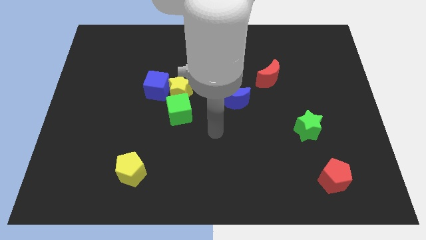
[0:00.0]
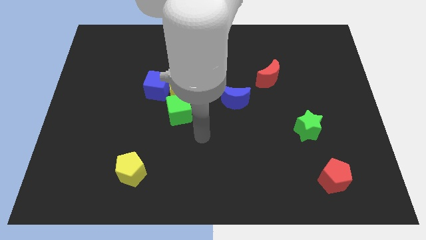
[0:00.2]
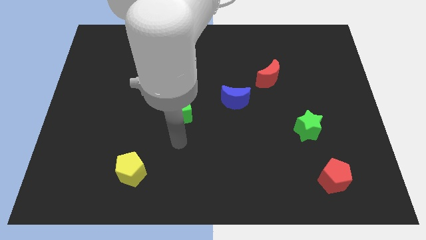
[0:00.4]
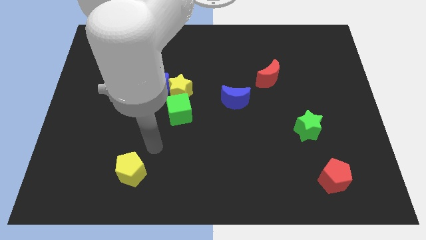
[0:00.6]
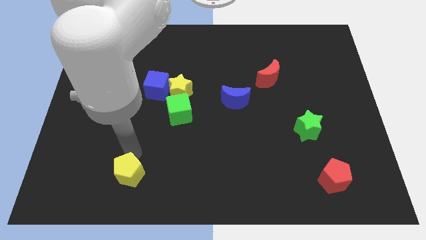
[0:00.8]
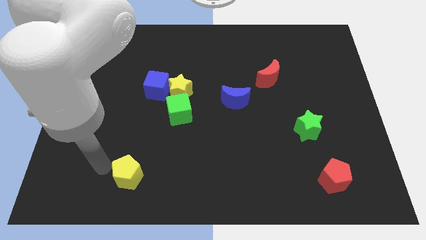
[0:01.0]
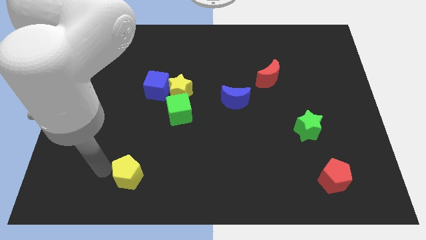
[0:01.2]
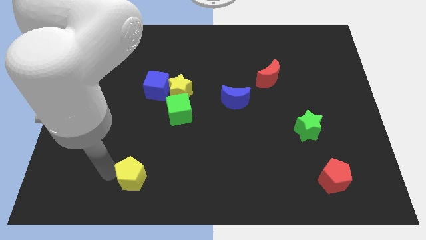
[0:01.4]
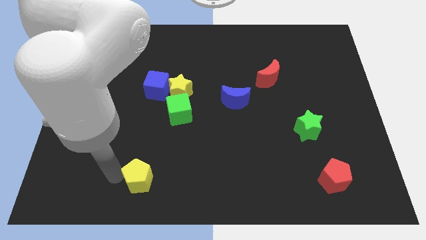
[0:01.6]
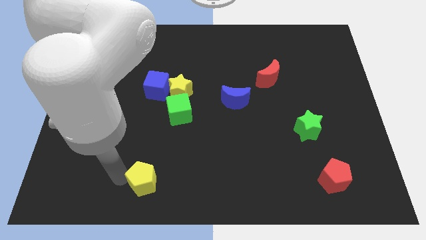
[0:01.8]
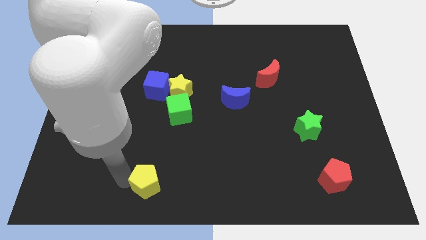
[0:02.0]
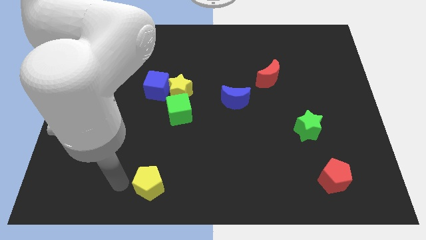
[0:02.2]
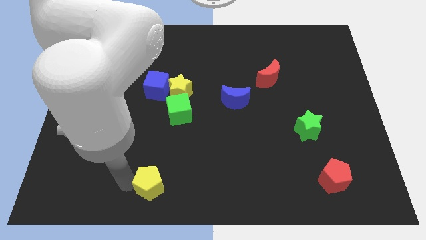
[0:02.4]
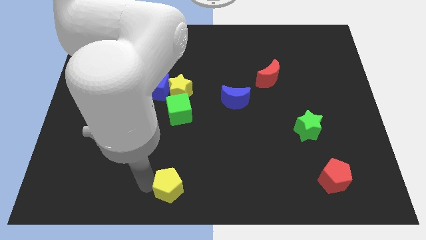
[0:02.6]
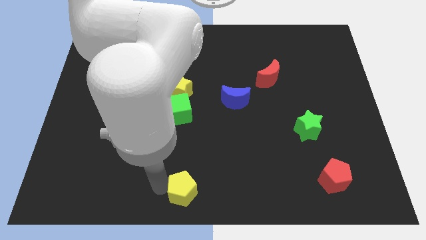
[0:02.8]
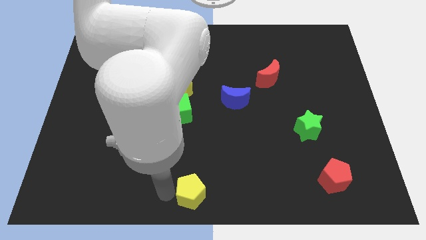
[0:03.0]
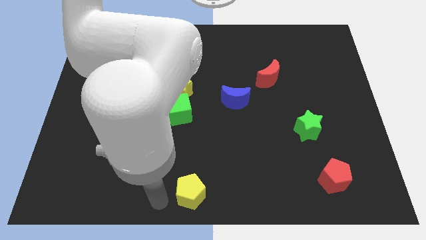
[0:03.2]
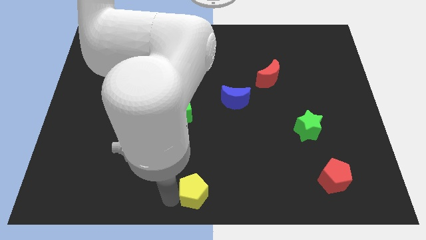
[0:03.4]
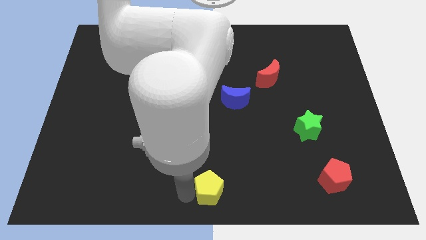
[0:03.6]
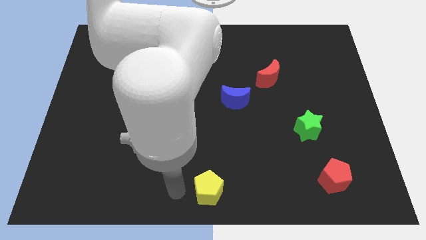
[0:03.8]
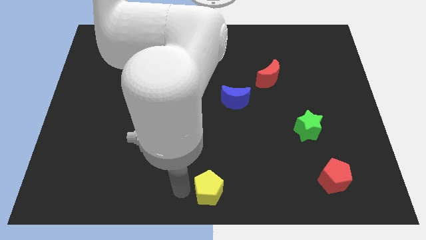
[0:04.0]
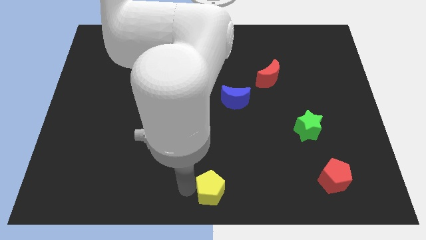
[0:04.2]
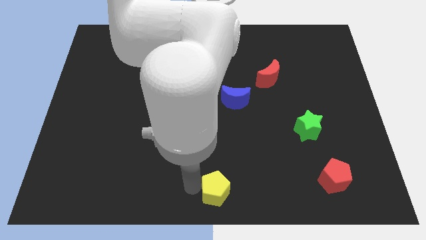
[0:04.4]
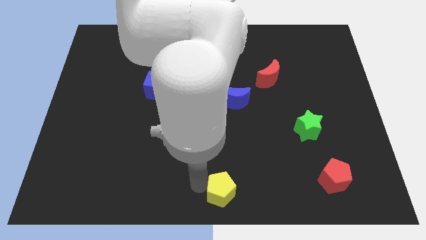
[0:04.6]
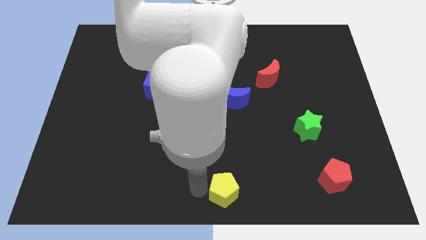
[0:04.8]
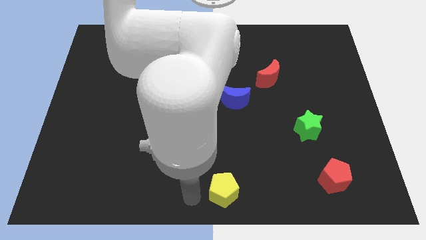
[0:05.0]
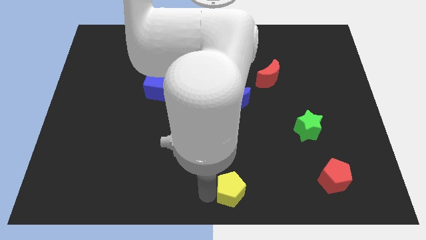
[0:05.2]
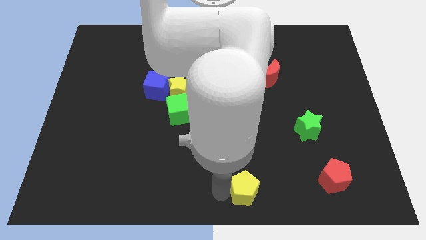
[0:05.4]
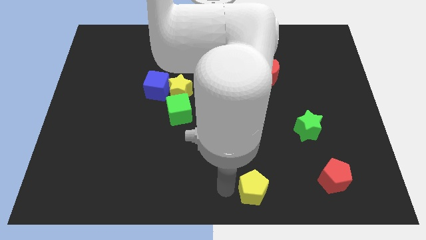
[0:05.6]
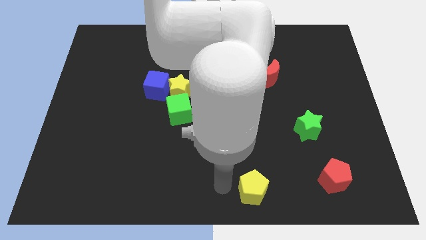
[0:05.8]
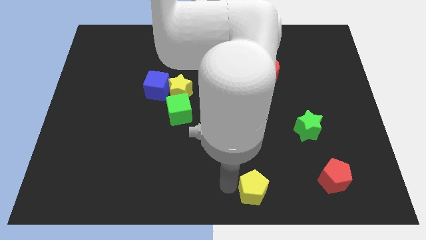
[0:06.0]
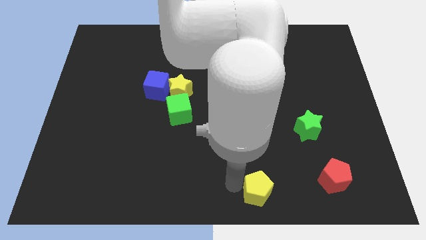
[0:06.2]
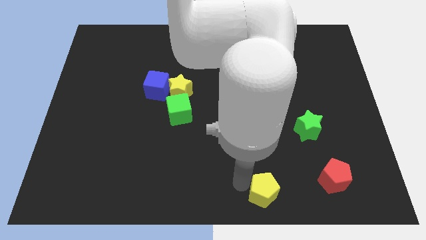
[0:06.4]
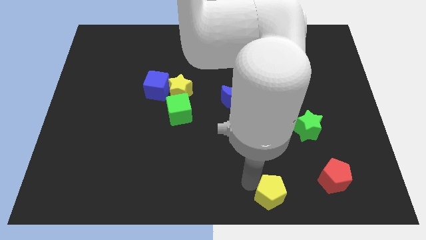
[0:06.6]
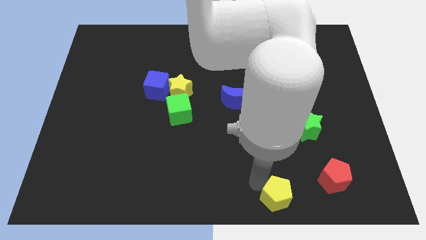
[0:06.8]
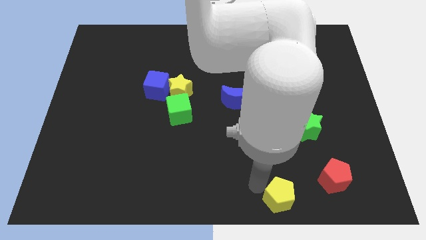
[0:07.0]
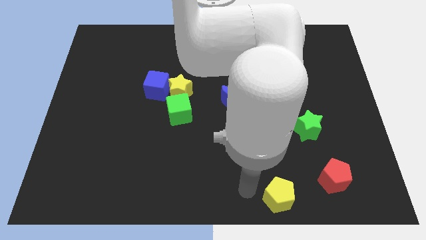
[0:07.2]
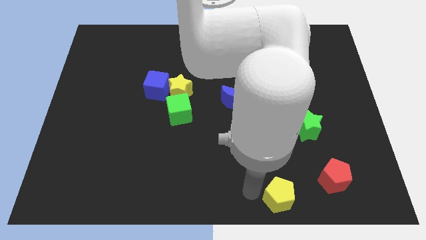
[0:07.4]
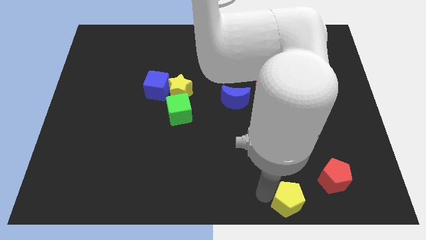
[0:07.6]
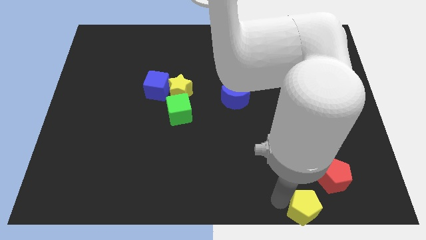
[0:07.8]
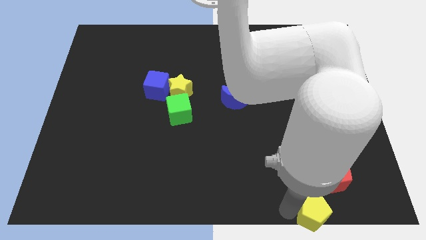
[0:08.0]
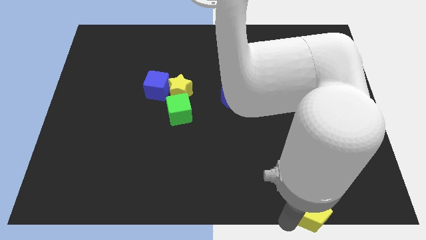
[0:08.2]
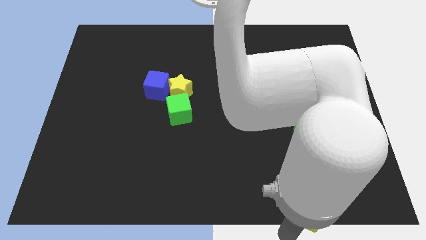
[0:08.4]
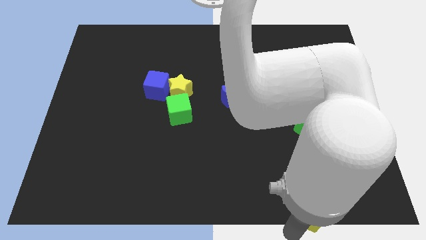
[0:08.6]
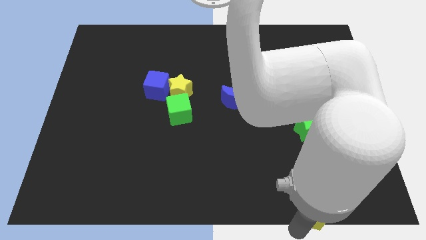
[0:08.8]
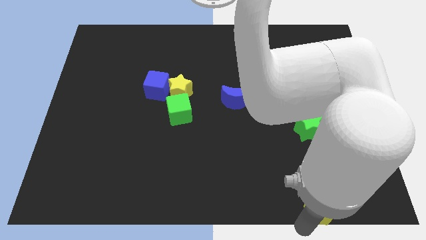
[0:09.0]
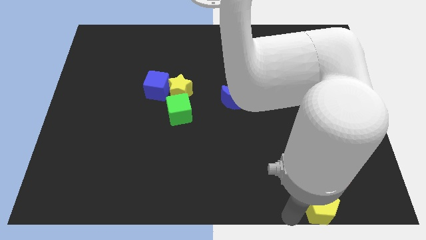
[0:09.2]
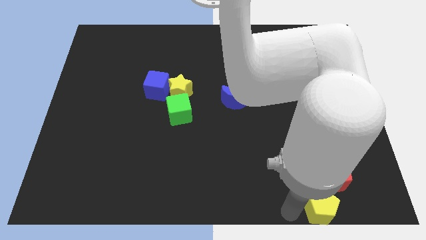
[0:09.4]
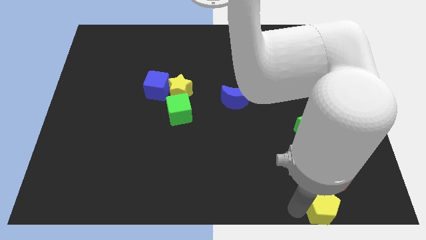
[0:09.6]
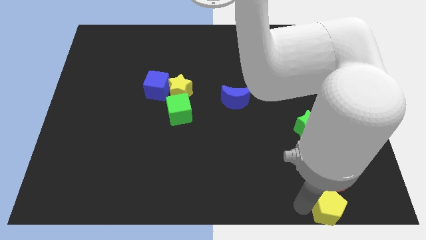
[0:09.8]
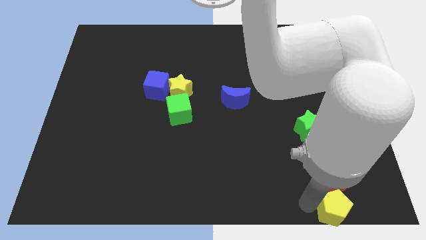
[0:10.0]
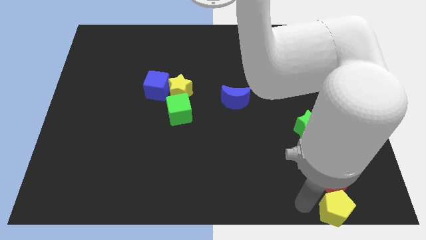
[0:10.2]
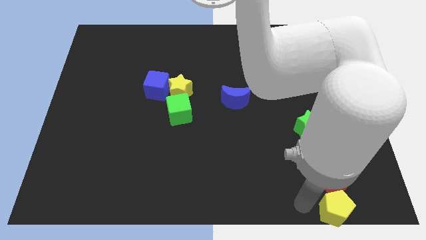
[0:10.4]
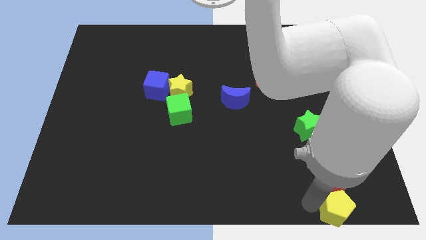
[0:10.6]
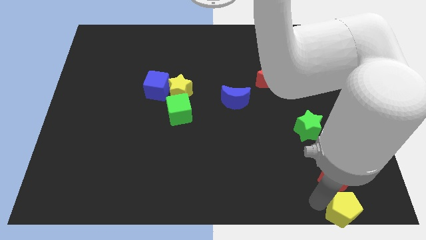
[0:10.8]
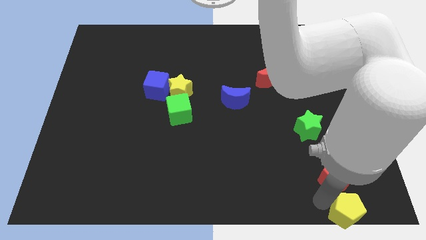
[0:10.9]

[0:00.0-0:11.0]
move the yellow pentagon to the bottom right

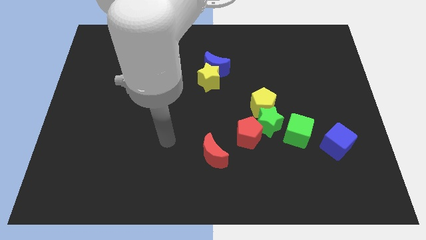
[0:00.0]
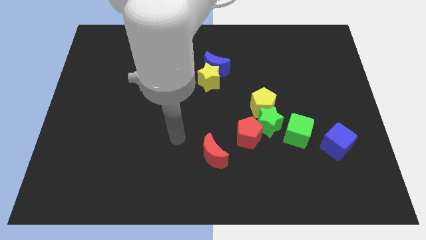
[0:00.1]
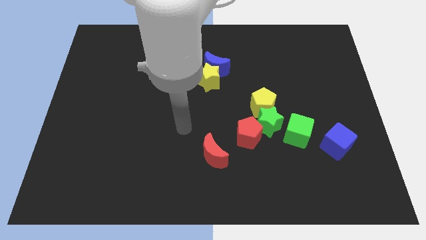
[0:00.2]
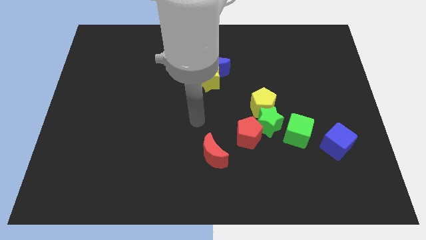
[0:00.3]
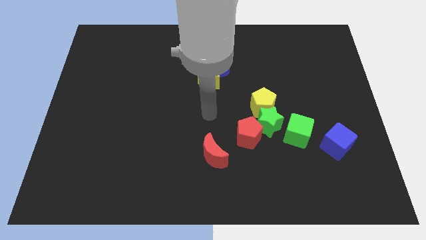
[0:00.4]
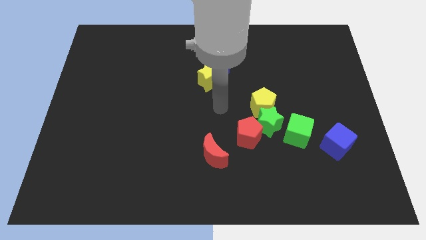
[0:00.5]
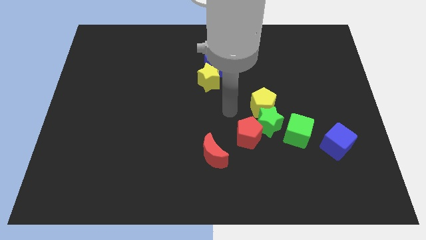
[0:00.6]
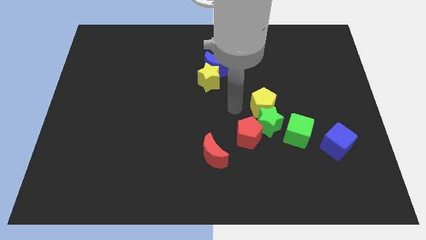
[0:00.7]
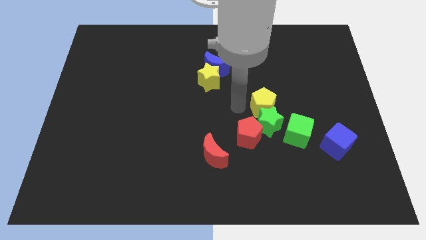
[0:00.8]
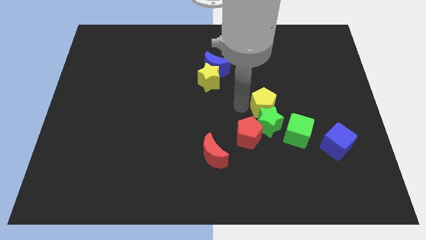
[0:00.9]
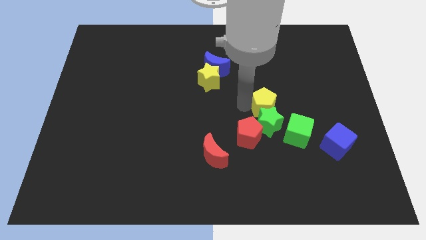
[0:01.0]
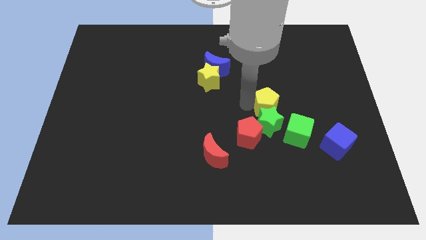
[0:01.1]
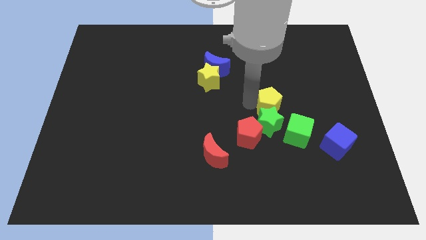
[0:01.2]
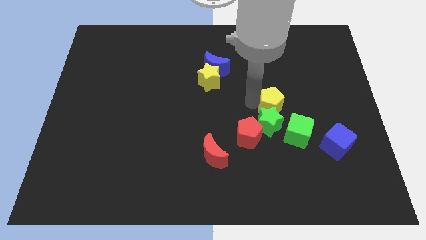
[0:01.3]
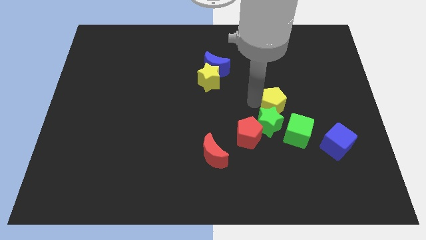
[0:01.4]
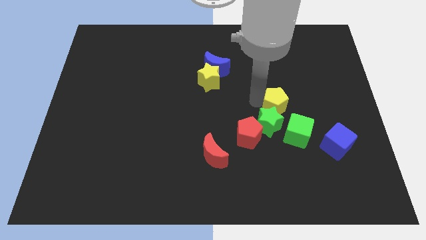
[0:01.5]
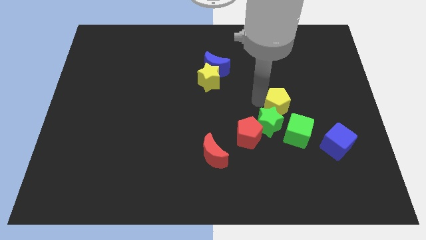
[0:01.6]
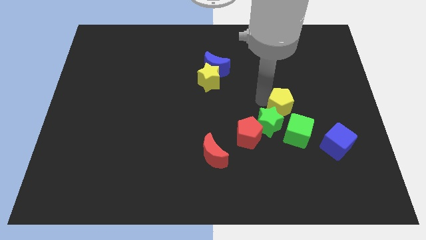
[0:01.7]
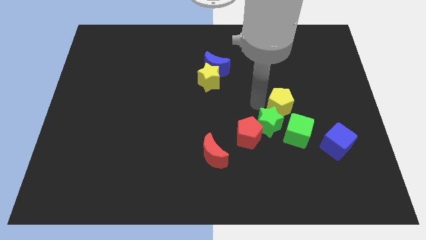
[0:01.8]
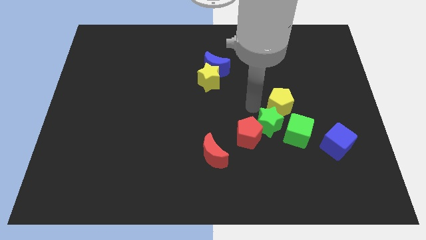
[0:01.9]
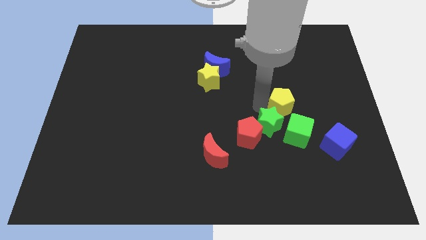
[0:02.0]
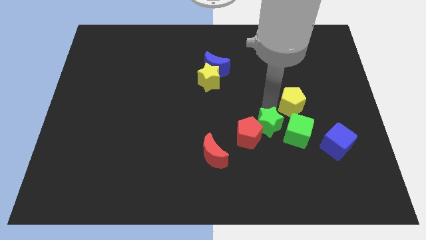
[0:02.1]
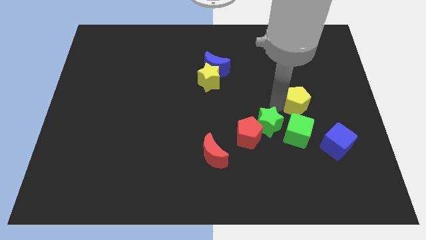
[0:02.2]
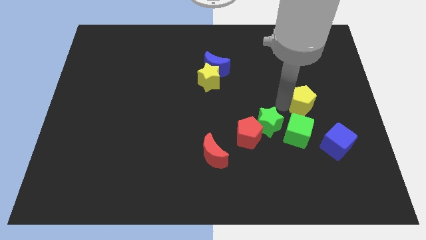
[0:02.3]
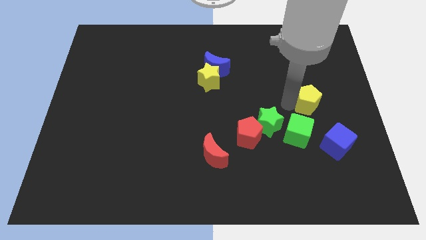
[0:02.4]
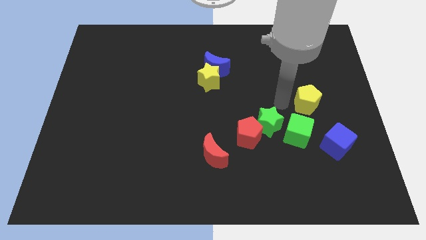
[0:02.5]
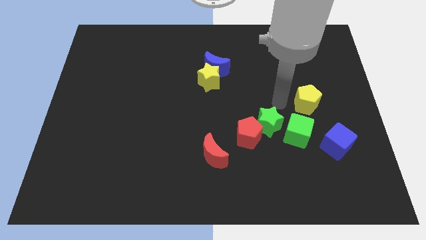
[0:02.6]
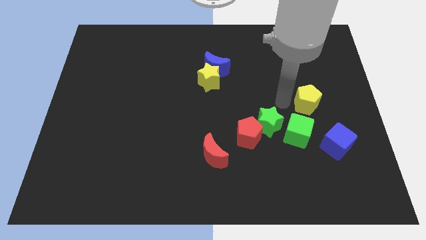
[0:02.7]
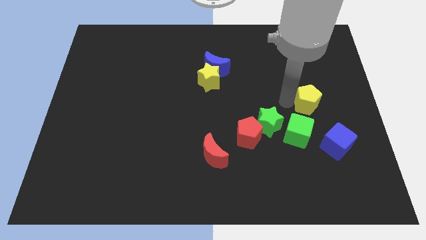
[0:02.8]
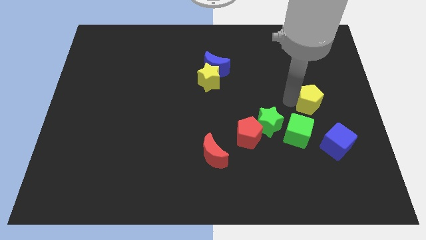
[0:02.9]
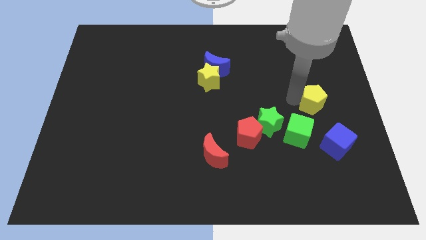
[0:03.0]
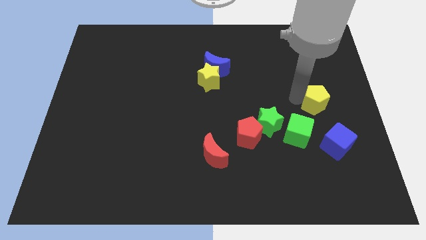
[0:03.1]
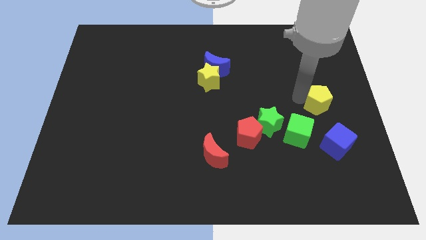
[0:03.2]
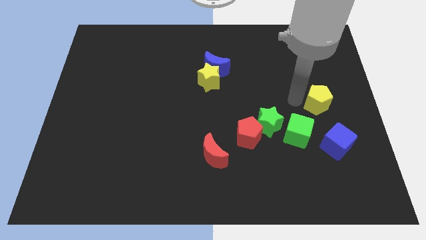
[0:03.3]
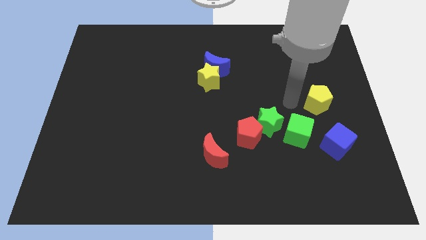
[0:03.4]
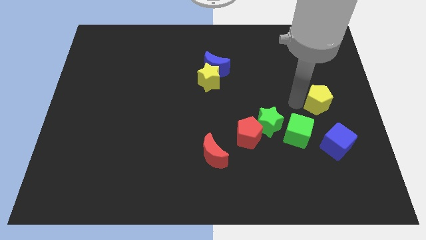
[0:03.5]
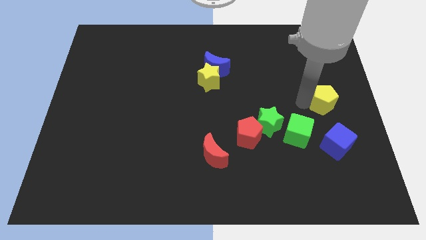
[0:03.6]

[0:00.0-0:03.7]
put the yellow pentagon to the right side
